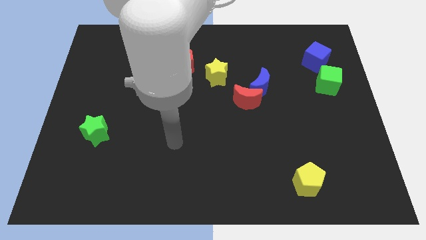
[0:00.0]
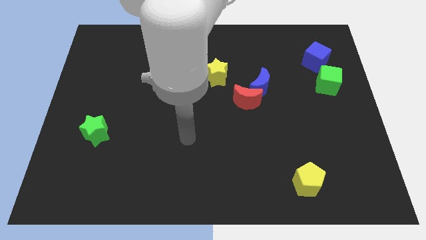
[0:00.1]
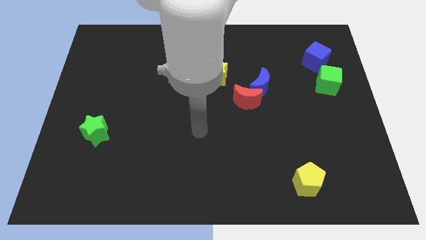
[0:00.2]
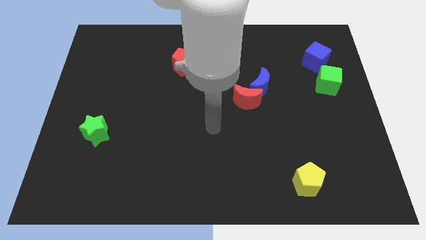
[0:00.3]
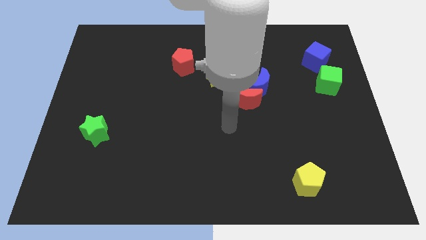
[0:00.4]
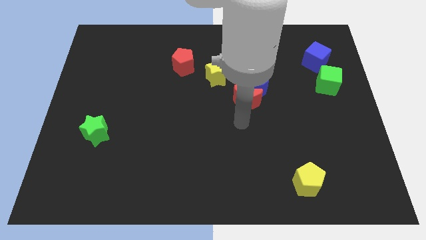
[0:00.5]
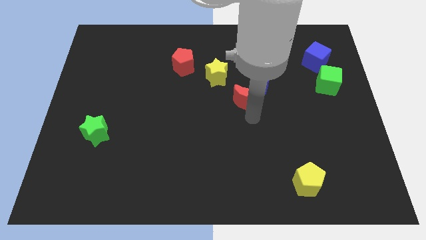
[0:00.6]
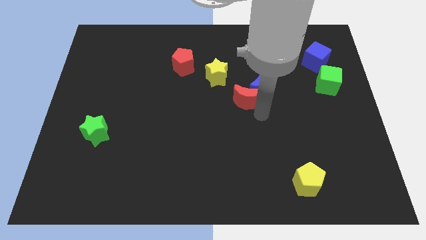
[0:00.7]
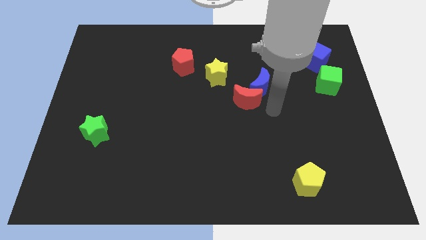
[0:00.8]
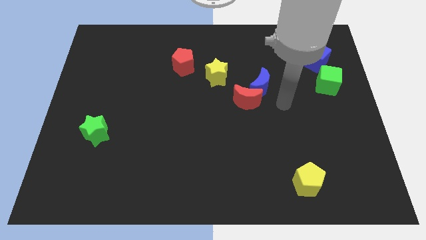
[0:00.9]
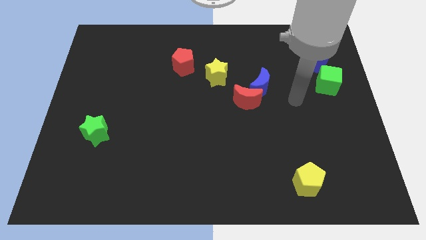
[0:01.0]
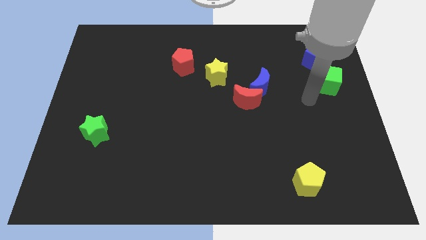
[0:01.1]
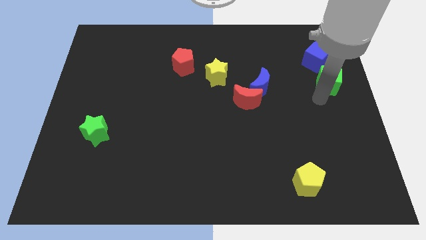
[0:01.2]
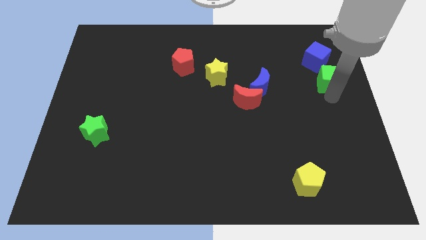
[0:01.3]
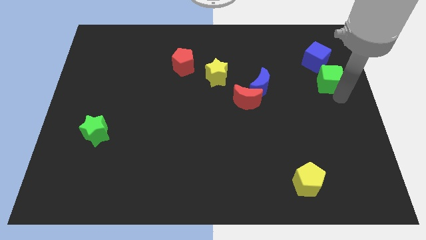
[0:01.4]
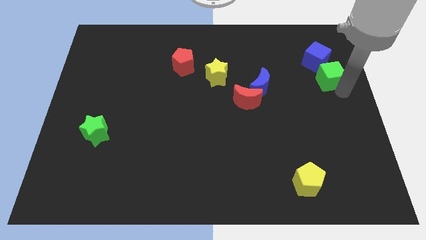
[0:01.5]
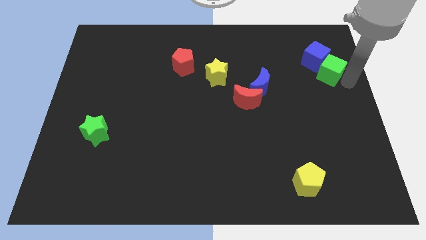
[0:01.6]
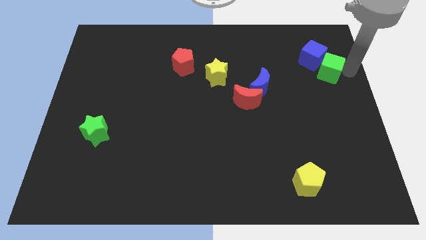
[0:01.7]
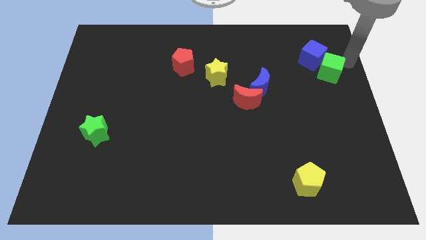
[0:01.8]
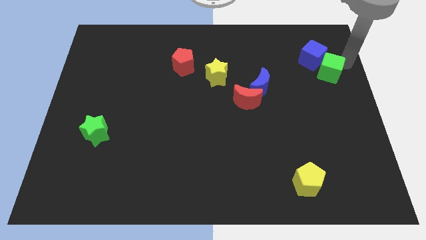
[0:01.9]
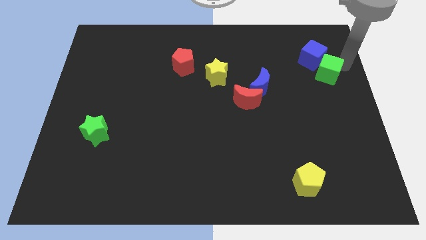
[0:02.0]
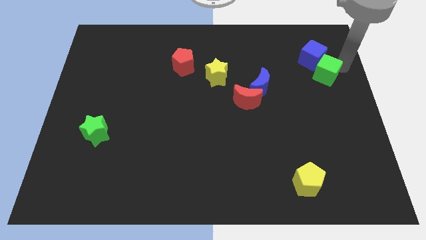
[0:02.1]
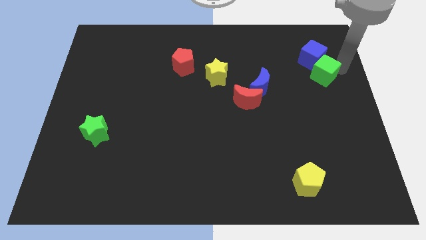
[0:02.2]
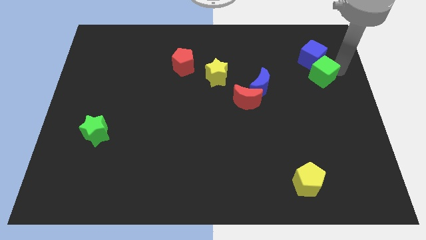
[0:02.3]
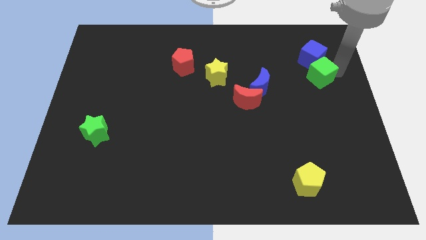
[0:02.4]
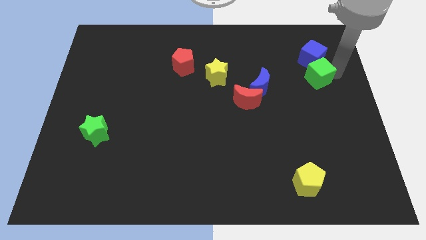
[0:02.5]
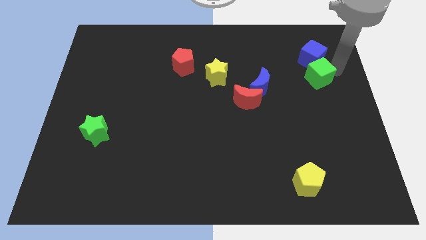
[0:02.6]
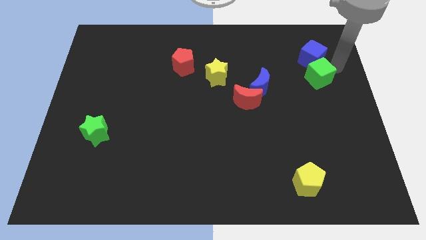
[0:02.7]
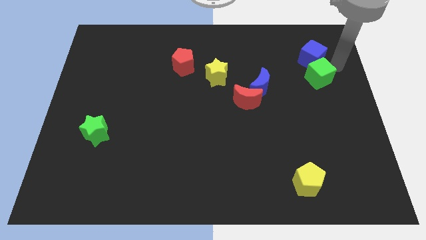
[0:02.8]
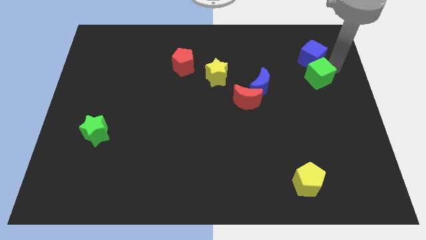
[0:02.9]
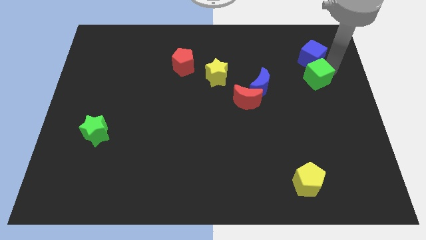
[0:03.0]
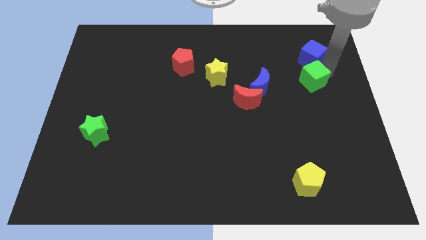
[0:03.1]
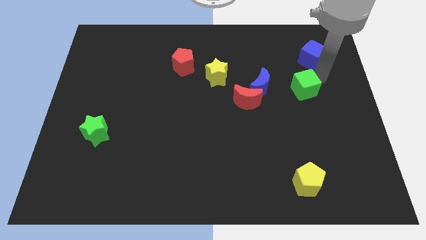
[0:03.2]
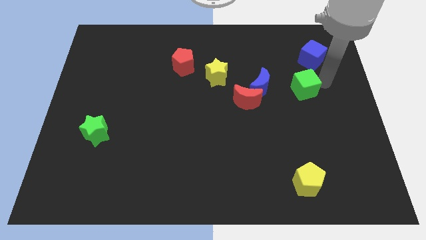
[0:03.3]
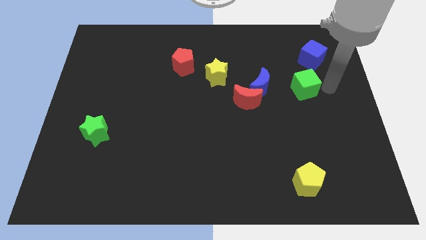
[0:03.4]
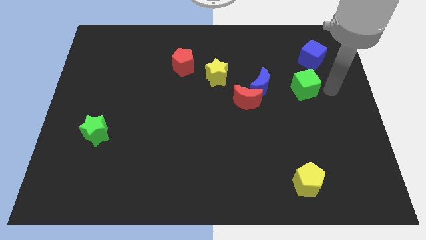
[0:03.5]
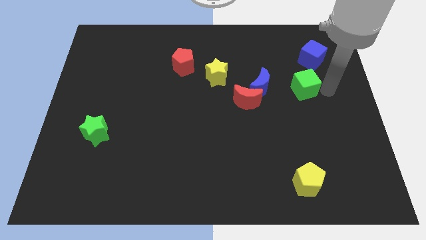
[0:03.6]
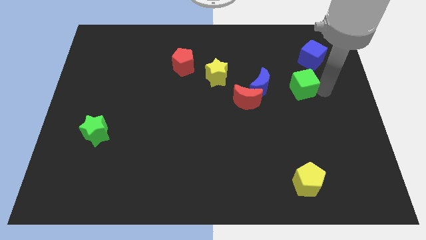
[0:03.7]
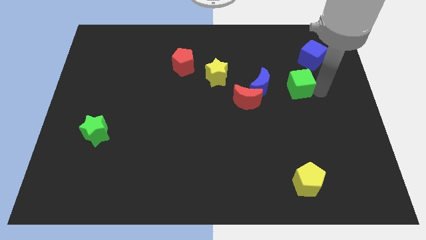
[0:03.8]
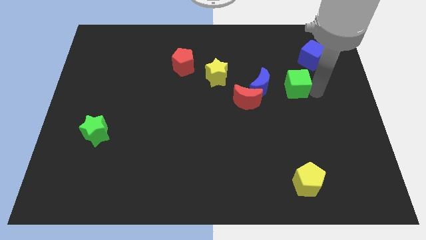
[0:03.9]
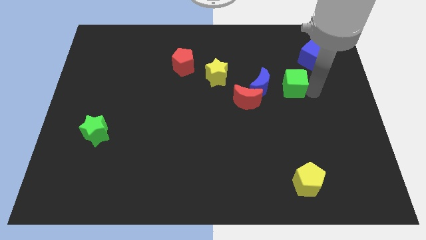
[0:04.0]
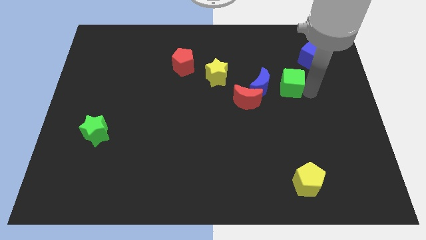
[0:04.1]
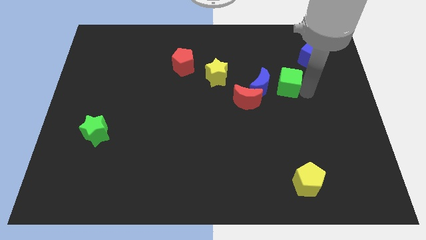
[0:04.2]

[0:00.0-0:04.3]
put the green cube diagonally up and to the right of the red moon

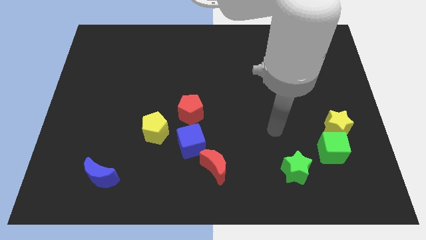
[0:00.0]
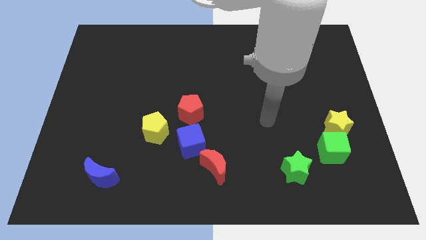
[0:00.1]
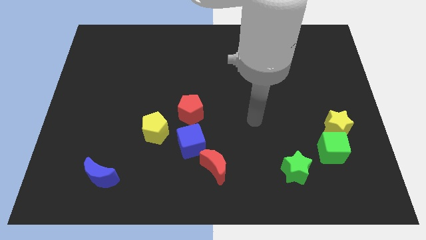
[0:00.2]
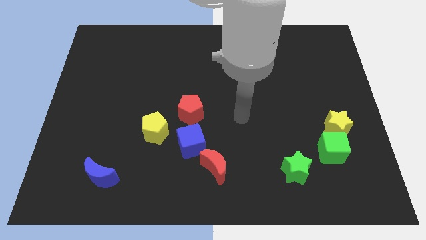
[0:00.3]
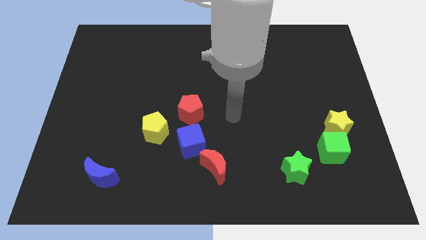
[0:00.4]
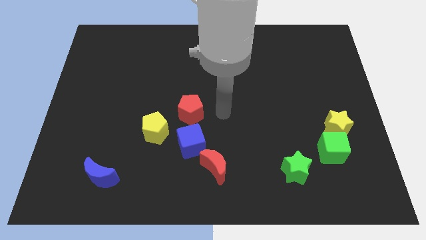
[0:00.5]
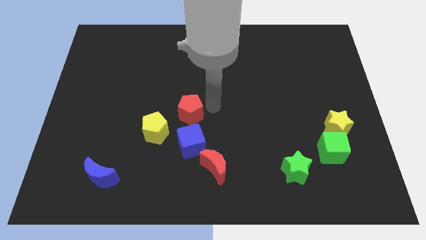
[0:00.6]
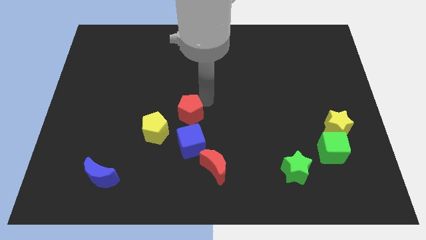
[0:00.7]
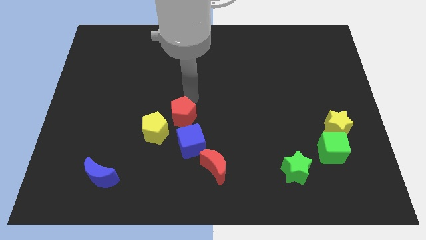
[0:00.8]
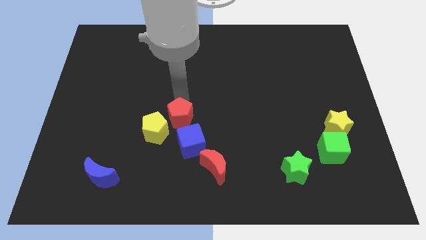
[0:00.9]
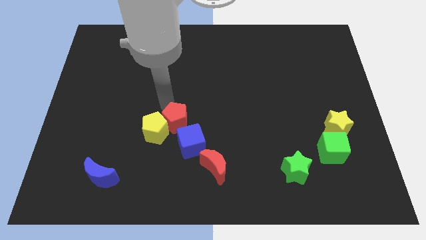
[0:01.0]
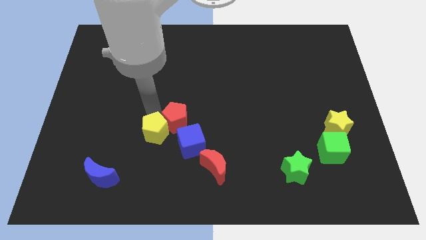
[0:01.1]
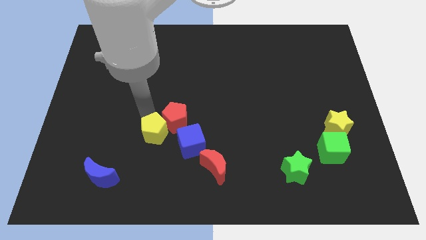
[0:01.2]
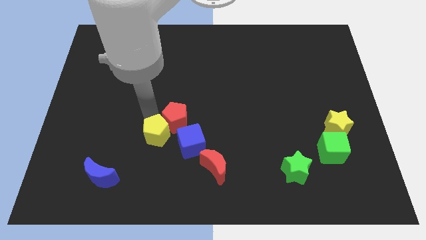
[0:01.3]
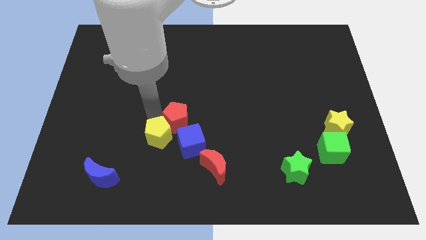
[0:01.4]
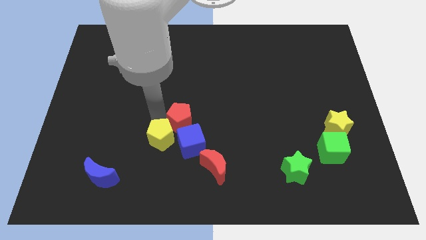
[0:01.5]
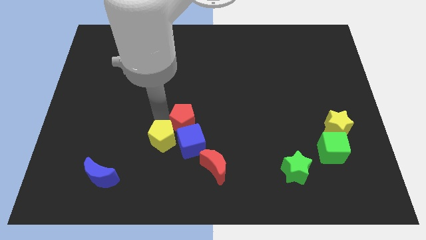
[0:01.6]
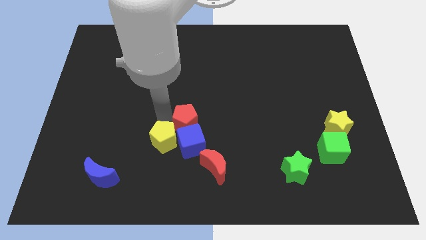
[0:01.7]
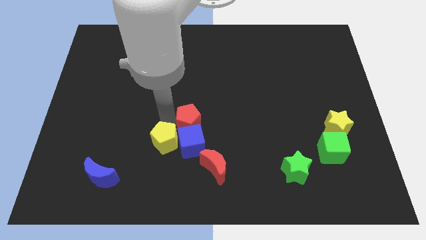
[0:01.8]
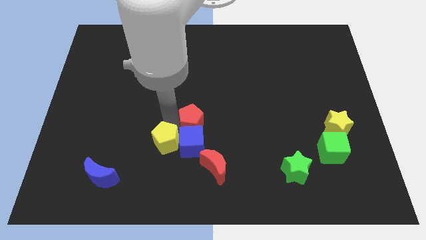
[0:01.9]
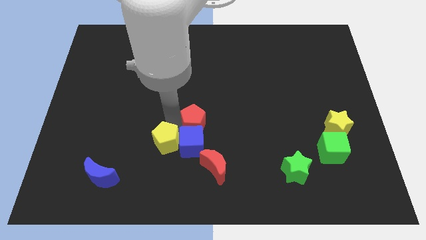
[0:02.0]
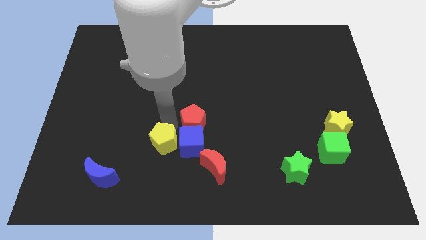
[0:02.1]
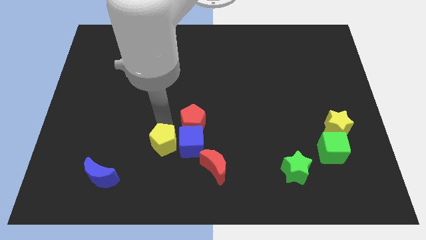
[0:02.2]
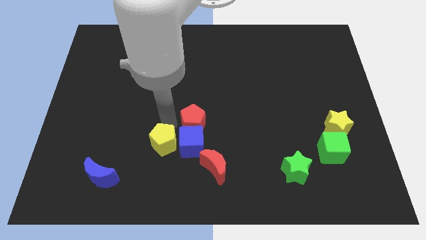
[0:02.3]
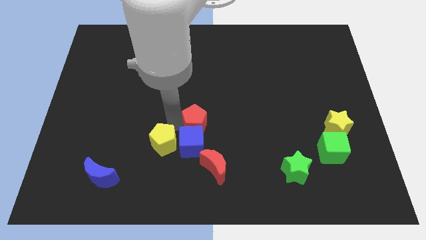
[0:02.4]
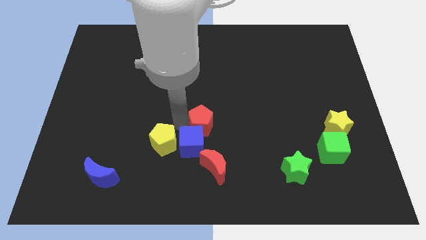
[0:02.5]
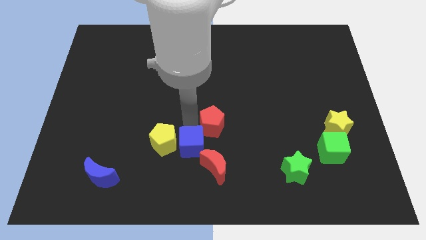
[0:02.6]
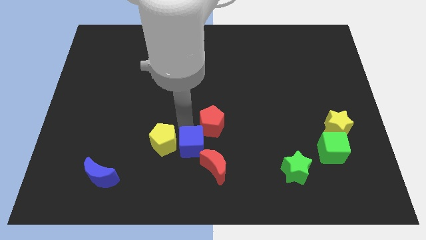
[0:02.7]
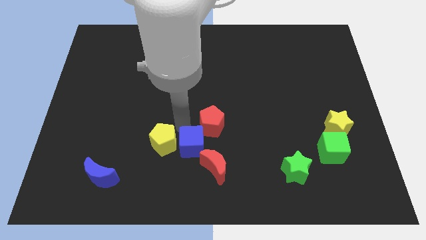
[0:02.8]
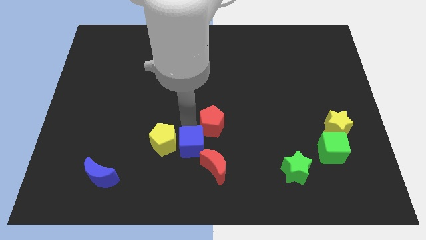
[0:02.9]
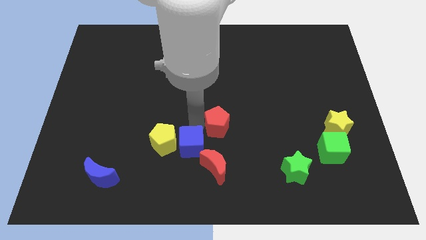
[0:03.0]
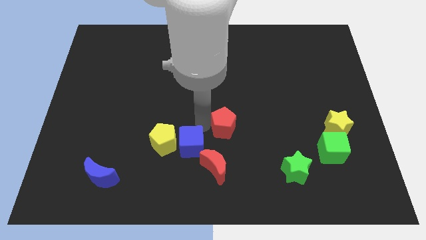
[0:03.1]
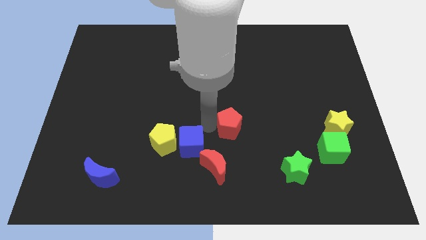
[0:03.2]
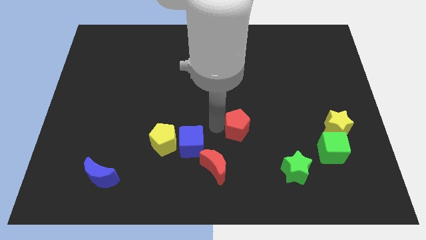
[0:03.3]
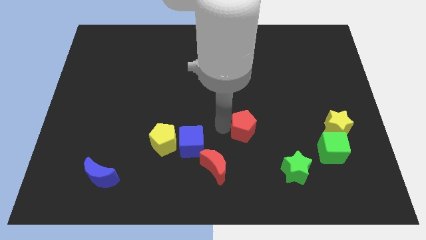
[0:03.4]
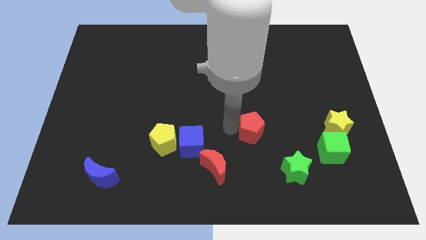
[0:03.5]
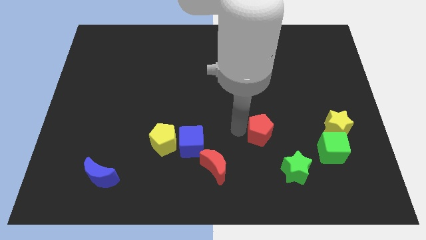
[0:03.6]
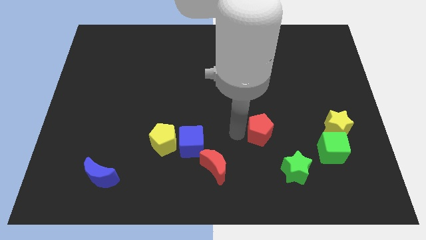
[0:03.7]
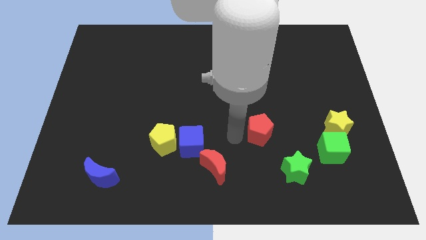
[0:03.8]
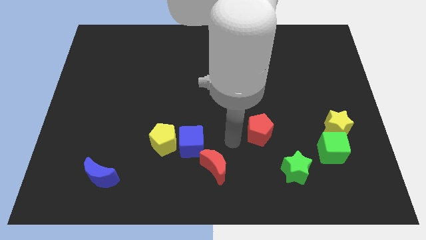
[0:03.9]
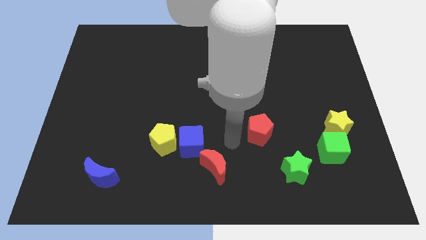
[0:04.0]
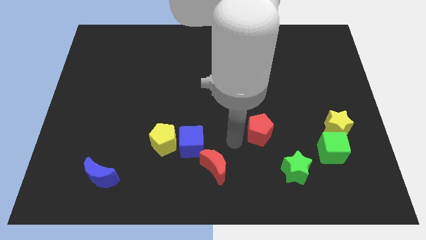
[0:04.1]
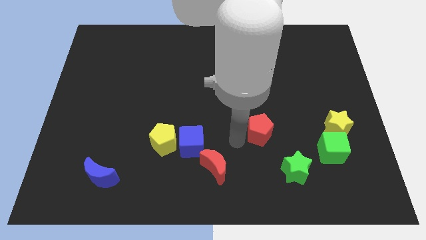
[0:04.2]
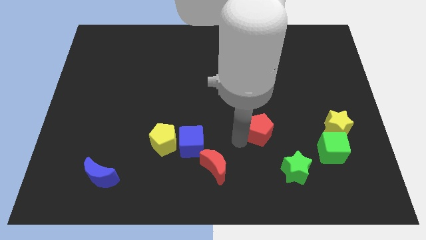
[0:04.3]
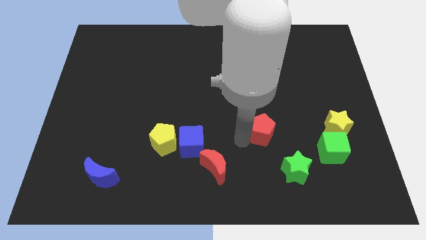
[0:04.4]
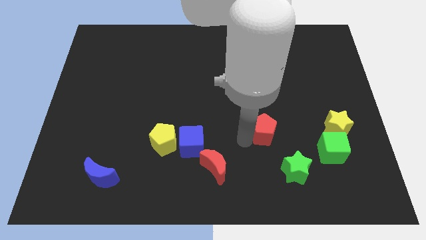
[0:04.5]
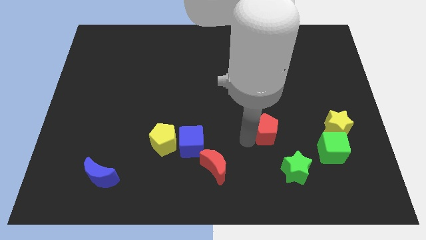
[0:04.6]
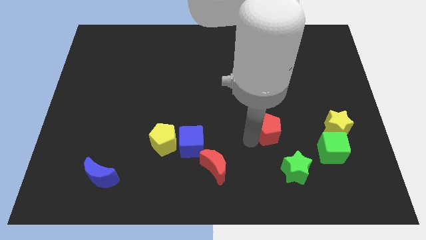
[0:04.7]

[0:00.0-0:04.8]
put the red pentagon to the top side of the green star
